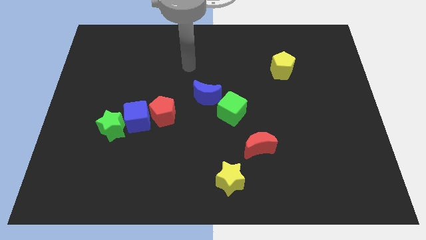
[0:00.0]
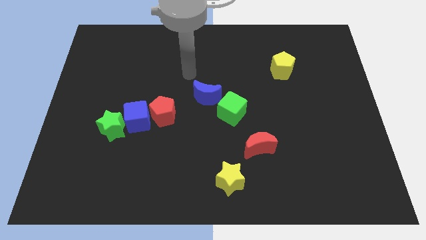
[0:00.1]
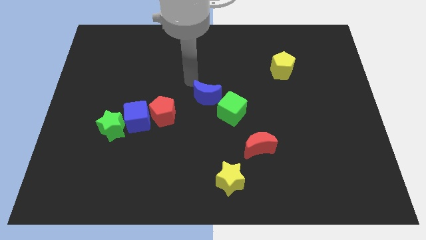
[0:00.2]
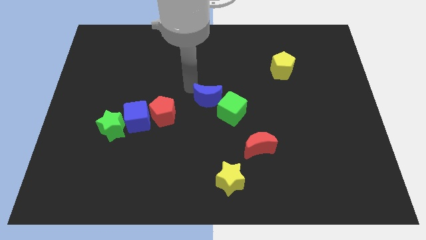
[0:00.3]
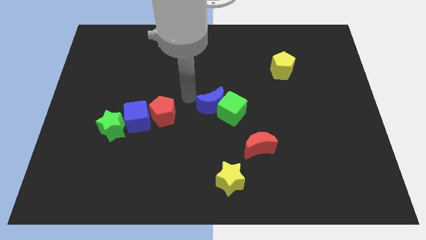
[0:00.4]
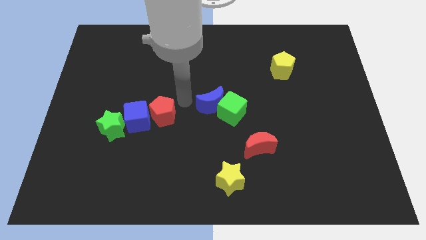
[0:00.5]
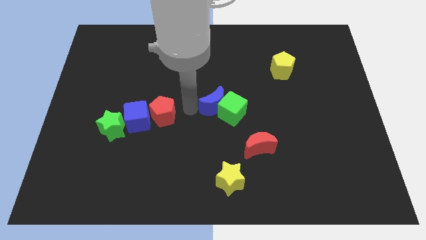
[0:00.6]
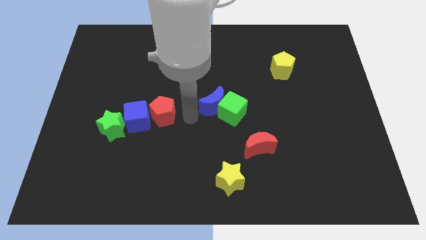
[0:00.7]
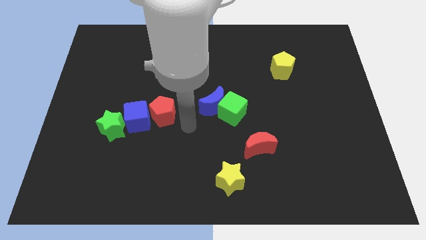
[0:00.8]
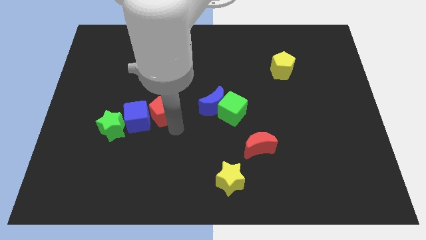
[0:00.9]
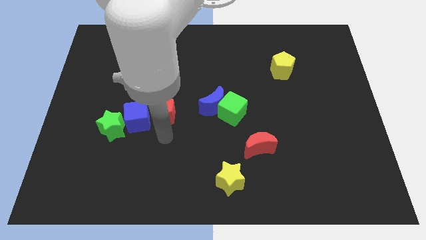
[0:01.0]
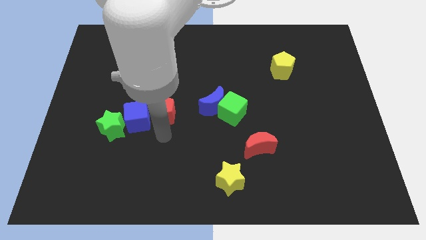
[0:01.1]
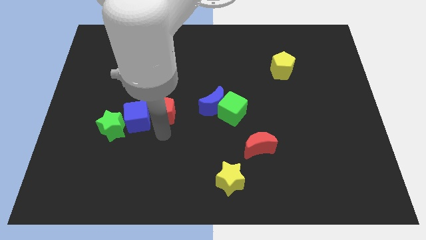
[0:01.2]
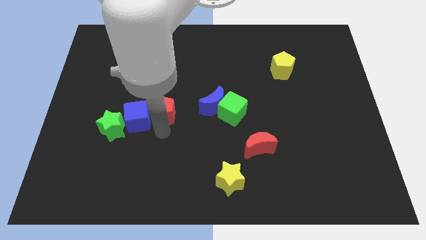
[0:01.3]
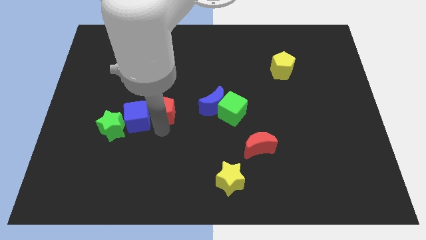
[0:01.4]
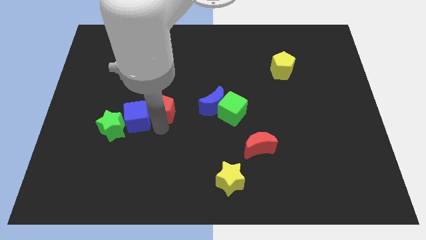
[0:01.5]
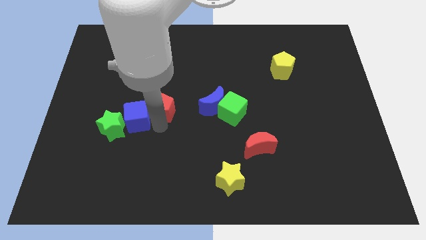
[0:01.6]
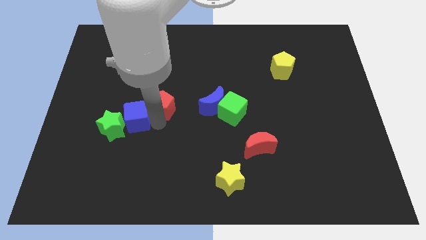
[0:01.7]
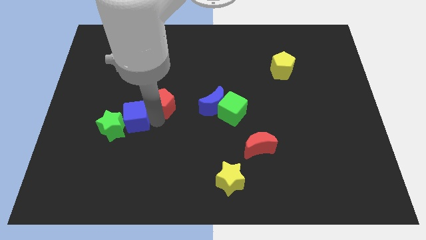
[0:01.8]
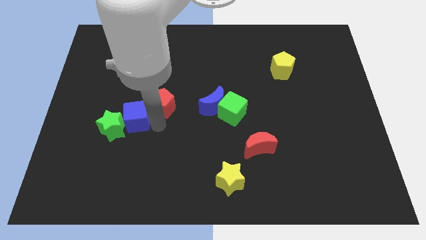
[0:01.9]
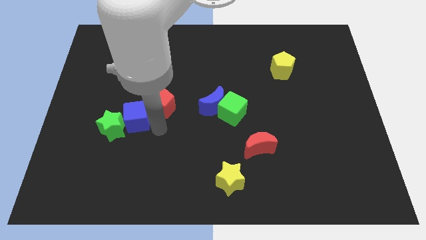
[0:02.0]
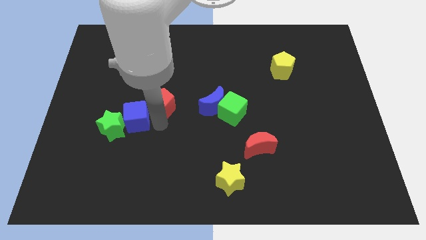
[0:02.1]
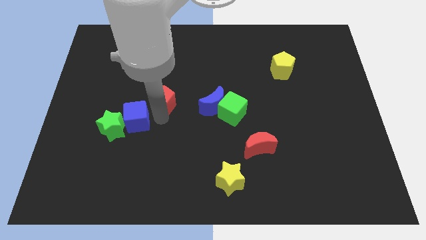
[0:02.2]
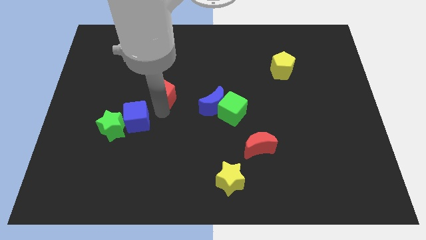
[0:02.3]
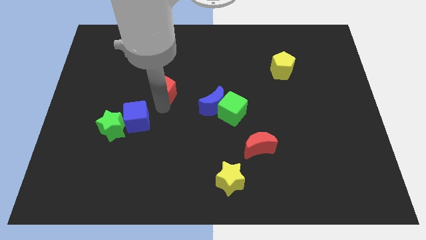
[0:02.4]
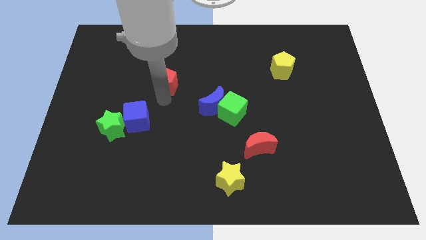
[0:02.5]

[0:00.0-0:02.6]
slide the red pentagon a little bit up

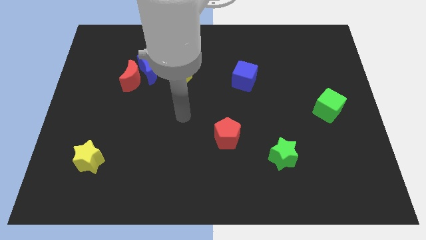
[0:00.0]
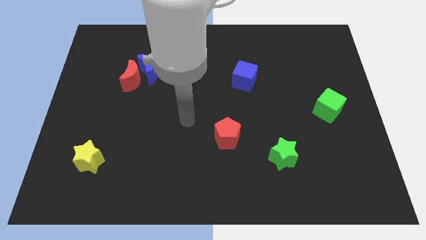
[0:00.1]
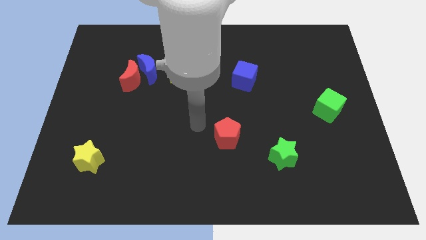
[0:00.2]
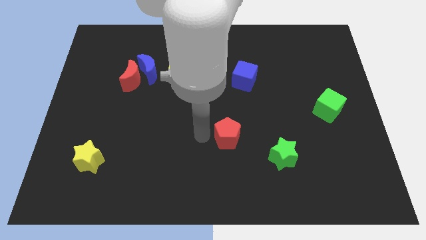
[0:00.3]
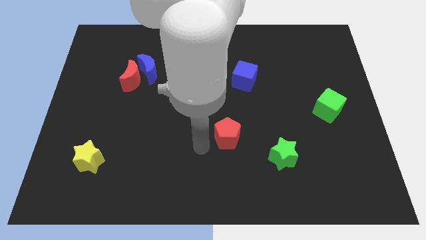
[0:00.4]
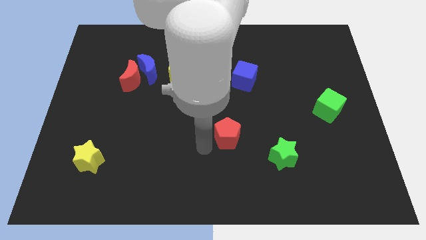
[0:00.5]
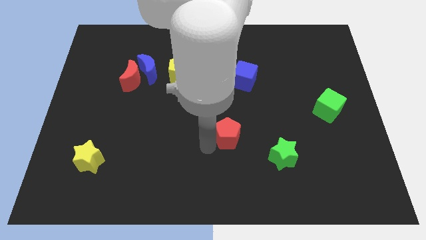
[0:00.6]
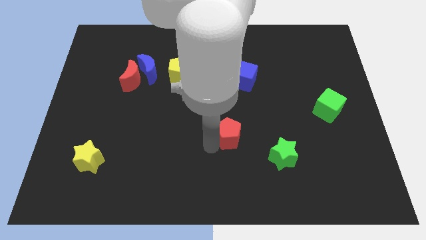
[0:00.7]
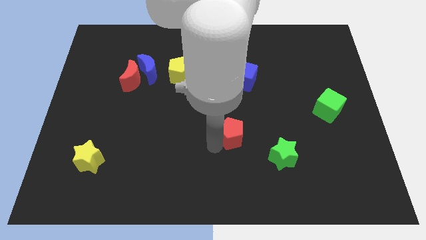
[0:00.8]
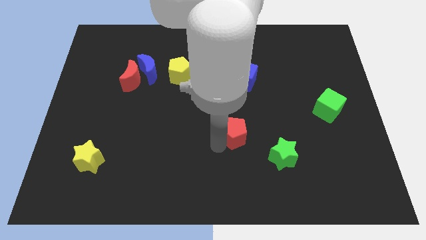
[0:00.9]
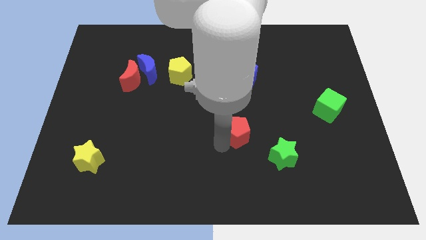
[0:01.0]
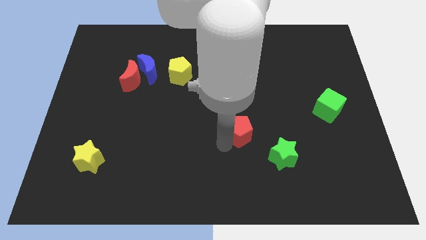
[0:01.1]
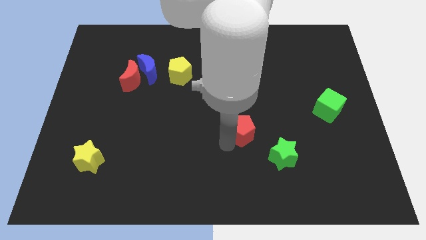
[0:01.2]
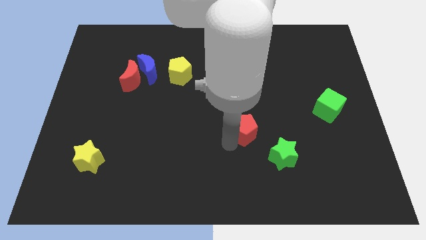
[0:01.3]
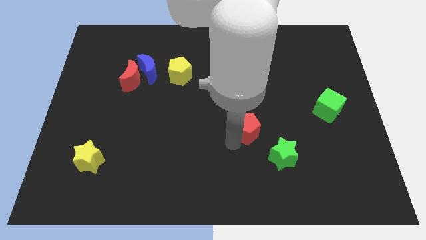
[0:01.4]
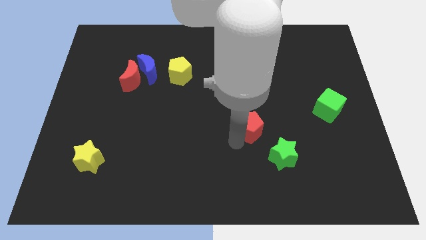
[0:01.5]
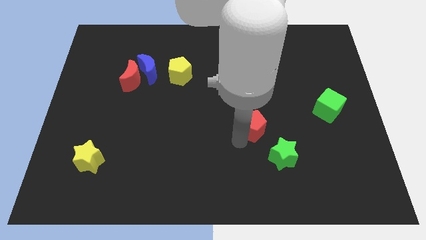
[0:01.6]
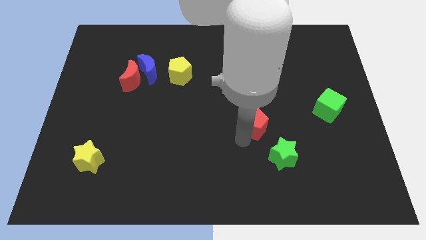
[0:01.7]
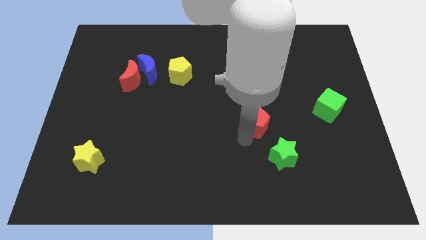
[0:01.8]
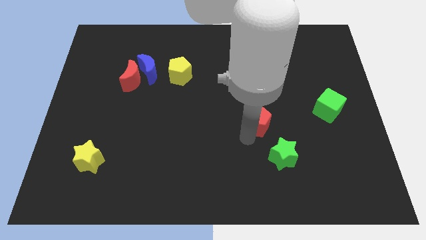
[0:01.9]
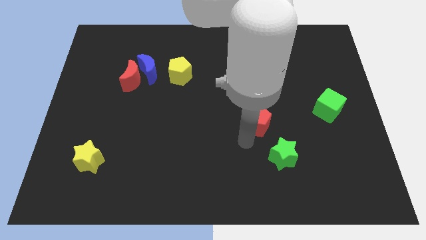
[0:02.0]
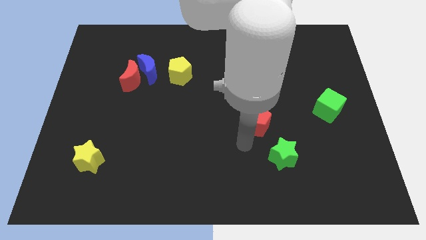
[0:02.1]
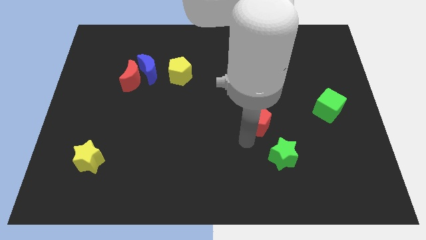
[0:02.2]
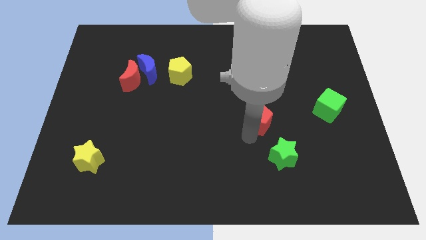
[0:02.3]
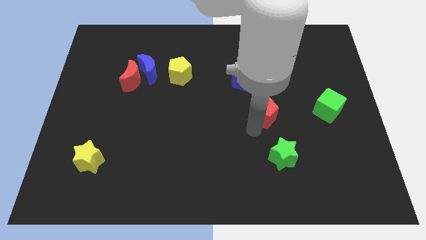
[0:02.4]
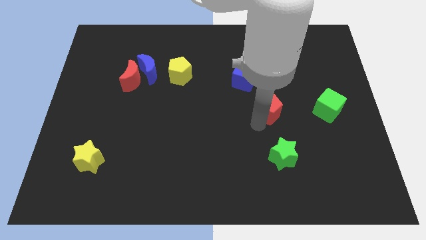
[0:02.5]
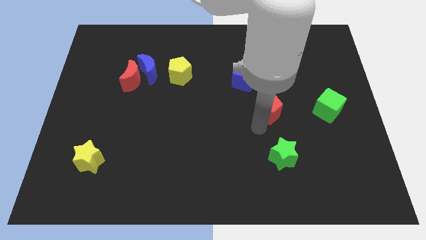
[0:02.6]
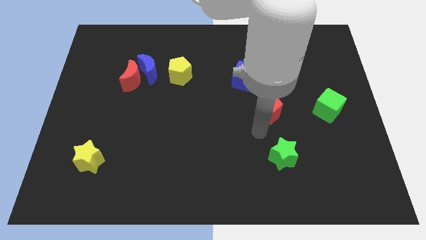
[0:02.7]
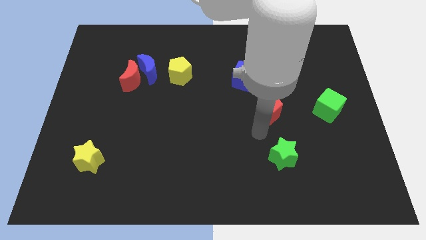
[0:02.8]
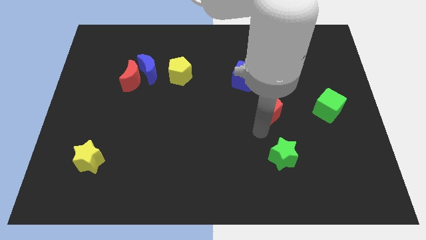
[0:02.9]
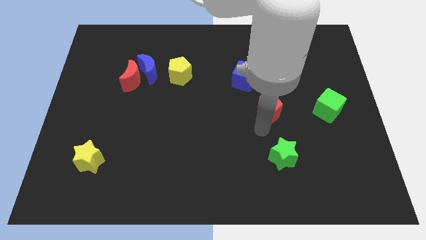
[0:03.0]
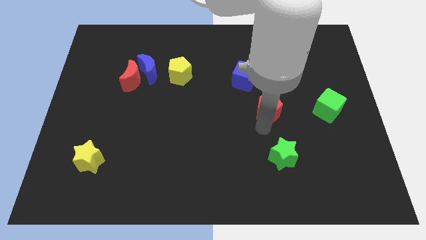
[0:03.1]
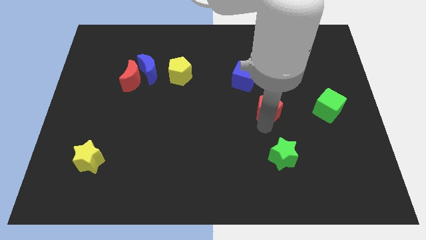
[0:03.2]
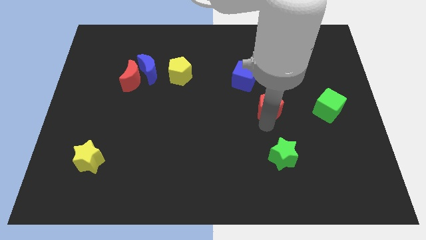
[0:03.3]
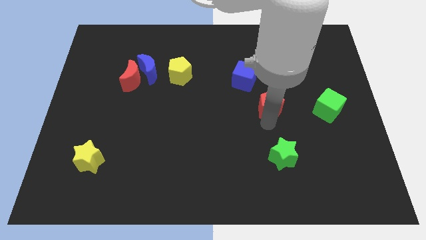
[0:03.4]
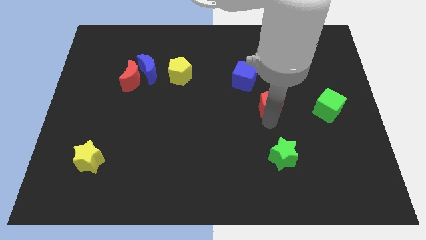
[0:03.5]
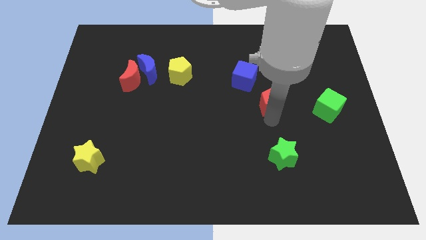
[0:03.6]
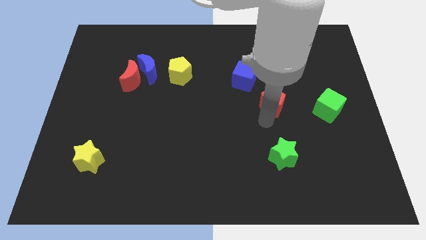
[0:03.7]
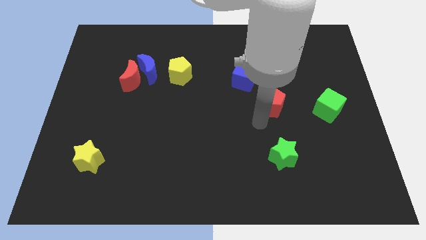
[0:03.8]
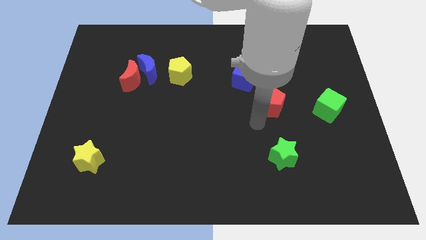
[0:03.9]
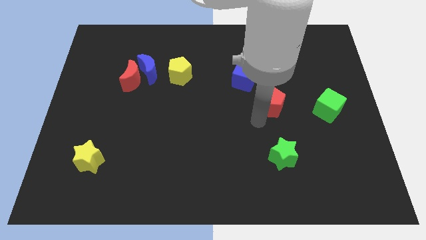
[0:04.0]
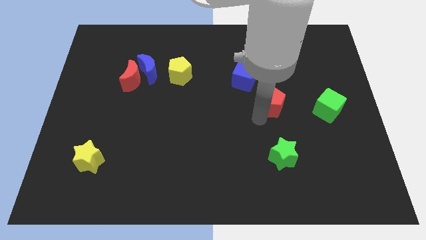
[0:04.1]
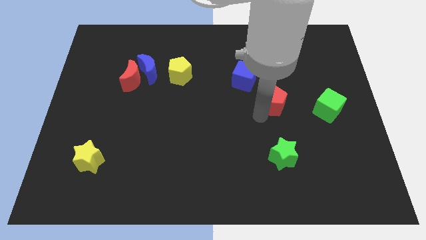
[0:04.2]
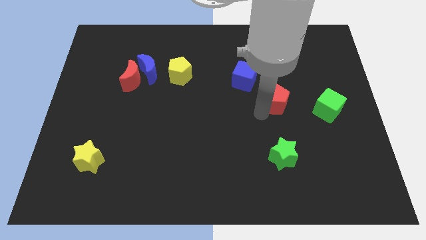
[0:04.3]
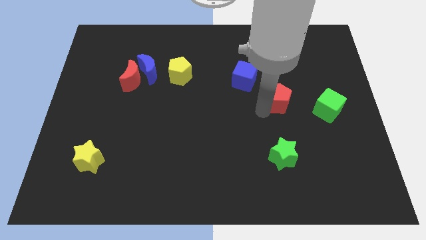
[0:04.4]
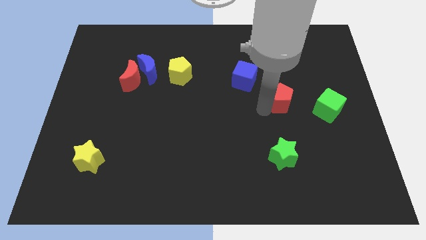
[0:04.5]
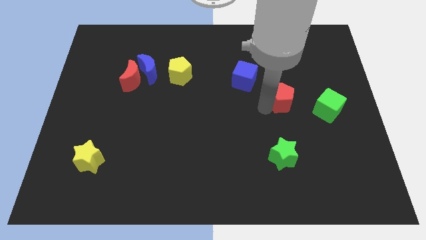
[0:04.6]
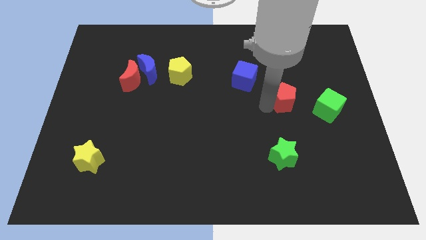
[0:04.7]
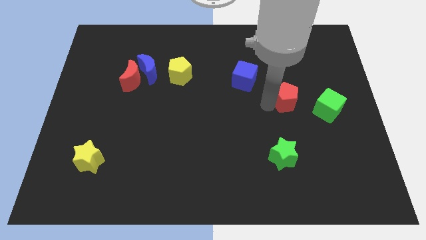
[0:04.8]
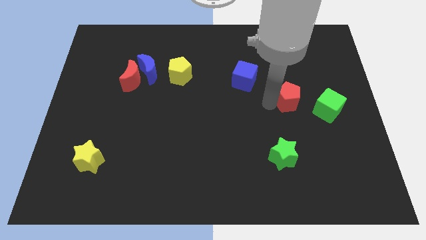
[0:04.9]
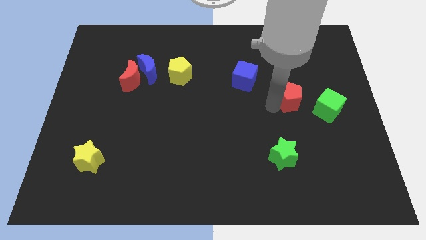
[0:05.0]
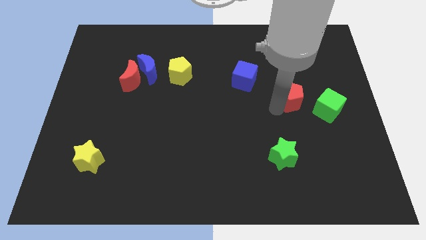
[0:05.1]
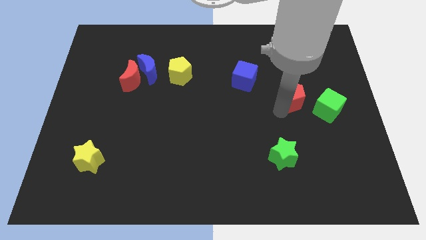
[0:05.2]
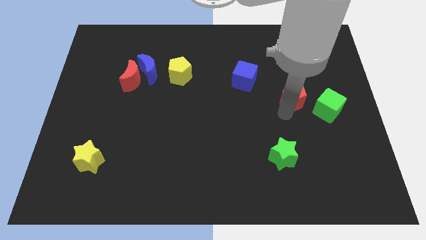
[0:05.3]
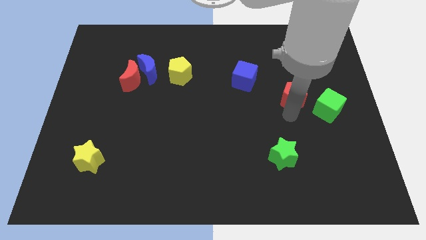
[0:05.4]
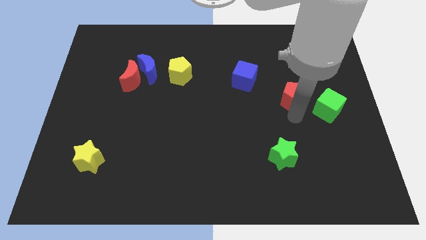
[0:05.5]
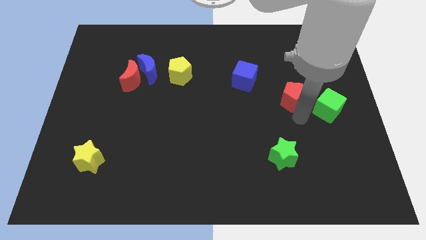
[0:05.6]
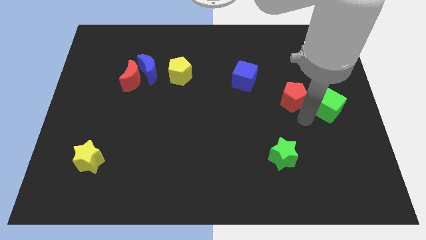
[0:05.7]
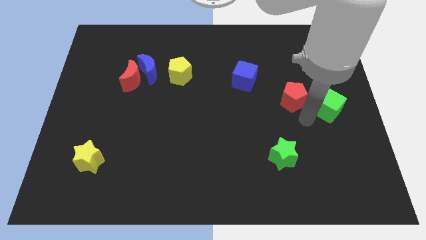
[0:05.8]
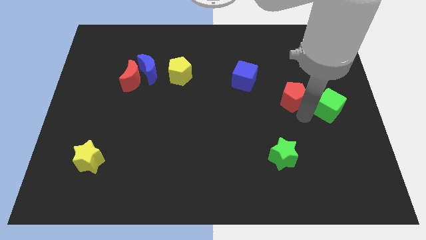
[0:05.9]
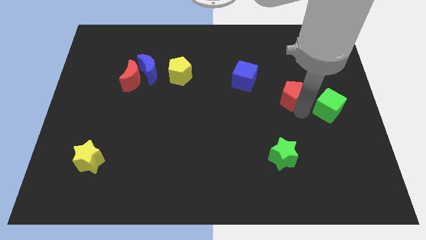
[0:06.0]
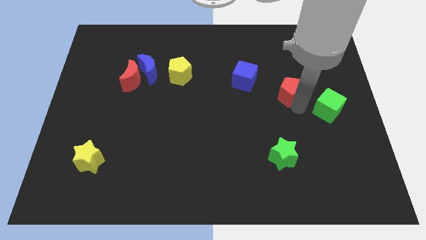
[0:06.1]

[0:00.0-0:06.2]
move the red pentagon up and right
